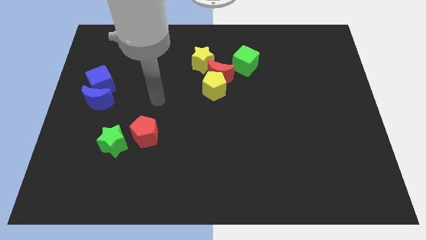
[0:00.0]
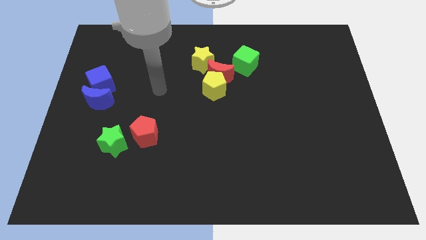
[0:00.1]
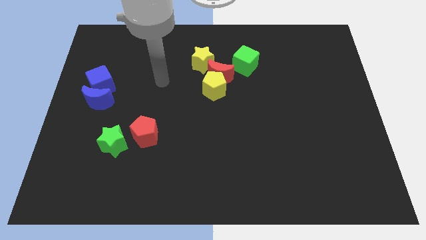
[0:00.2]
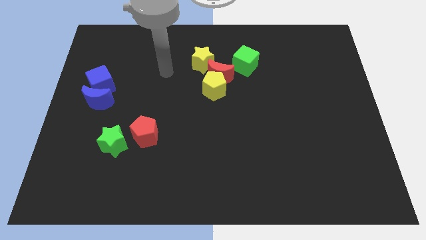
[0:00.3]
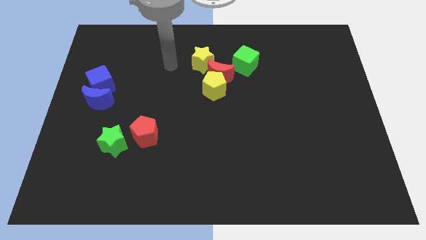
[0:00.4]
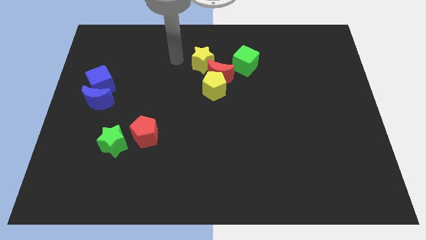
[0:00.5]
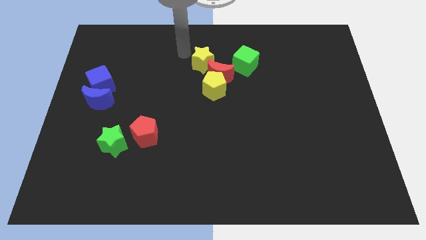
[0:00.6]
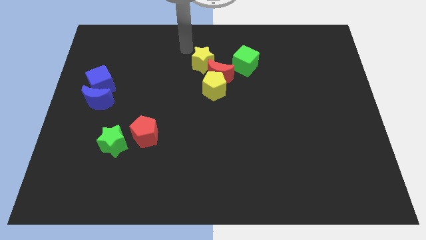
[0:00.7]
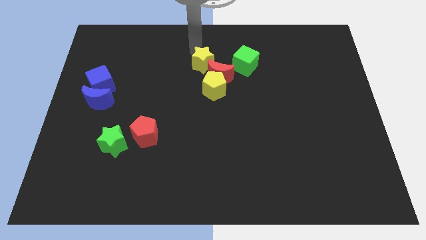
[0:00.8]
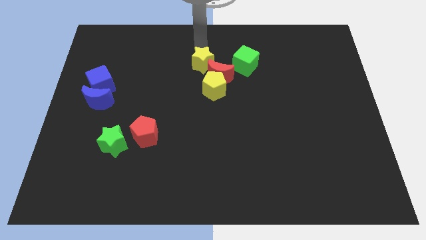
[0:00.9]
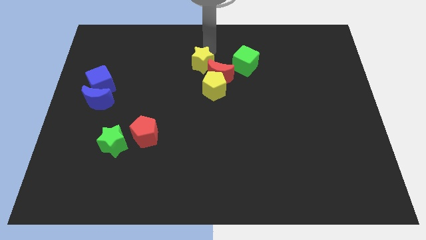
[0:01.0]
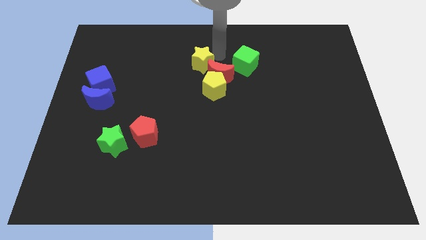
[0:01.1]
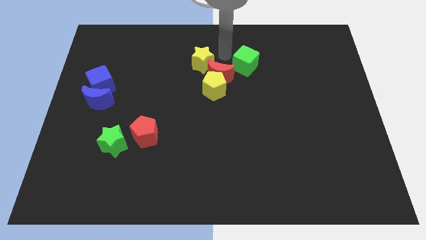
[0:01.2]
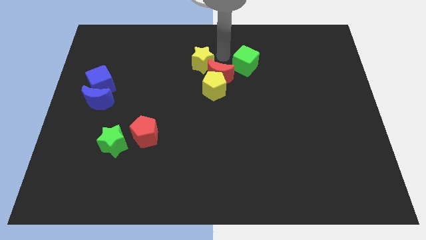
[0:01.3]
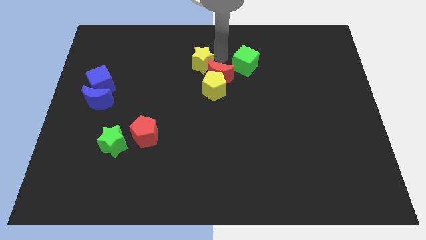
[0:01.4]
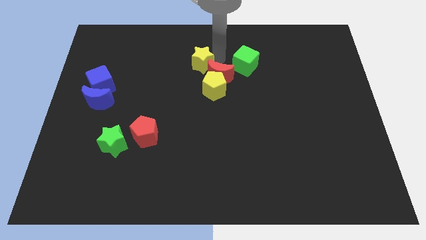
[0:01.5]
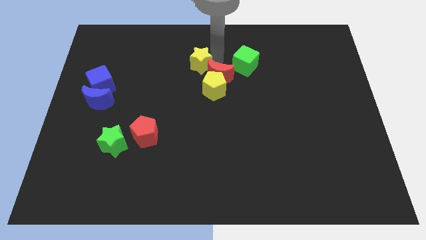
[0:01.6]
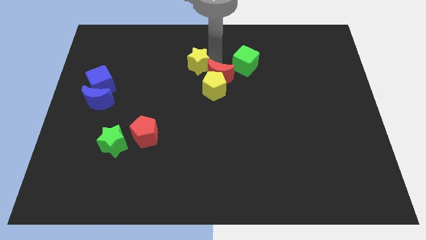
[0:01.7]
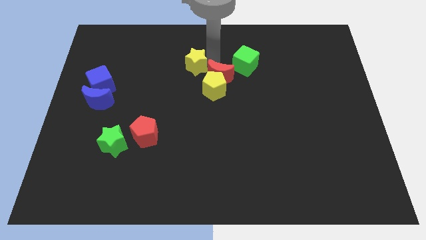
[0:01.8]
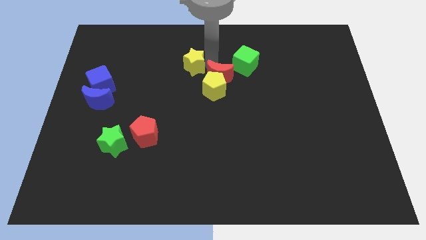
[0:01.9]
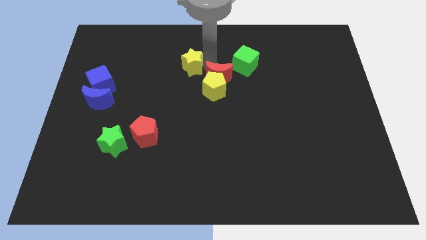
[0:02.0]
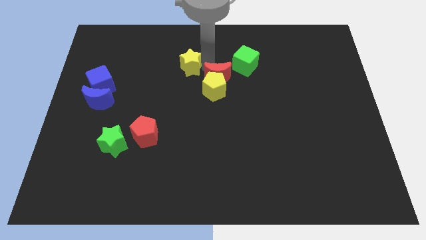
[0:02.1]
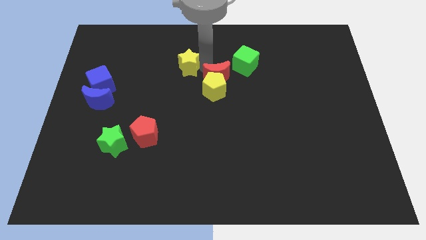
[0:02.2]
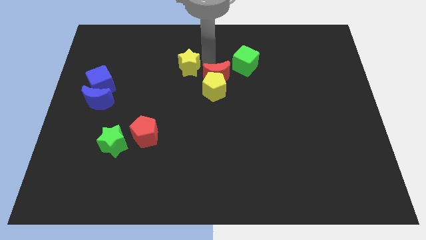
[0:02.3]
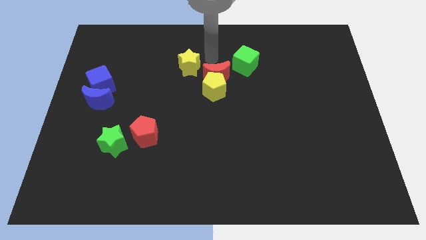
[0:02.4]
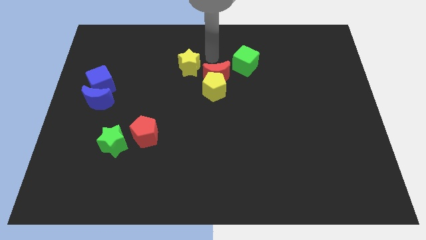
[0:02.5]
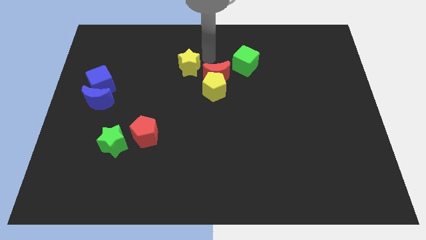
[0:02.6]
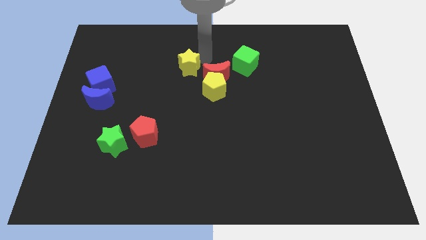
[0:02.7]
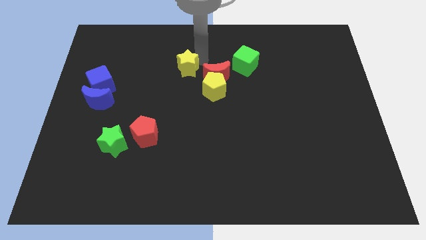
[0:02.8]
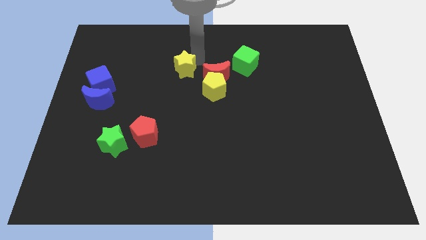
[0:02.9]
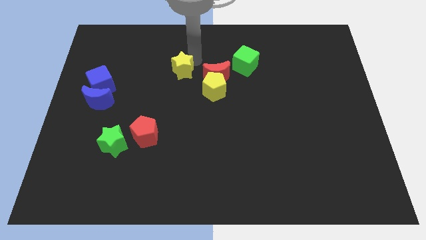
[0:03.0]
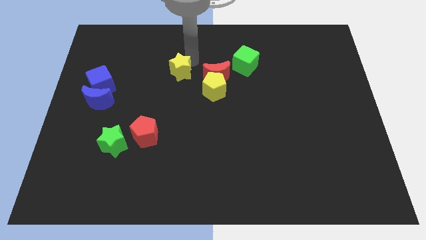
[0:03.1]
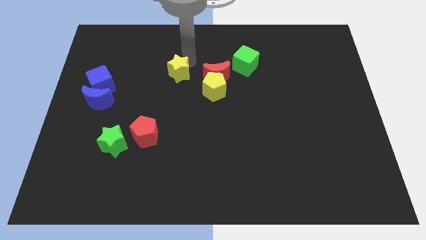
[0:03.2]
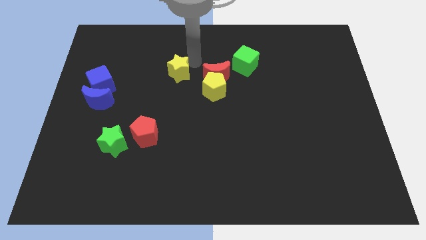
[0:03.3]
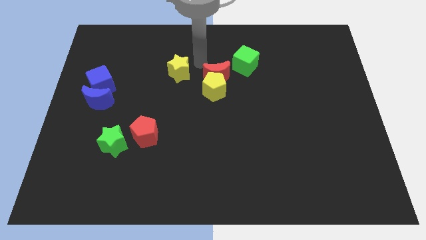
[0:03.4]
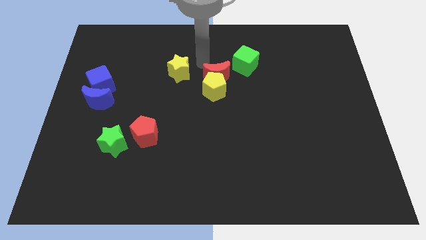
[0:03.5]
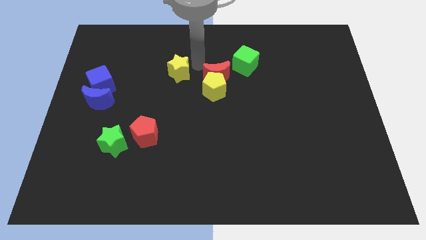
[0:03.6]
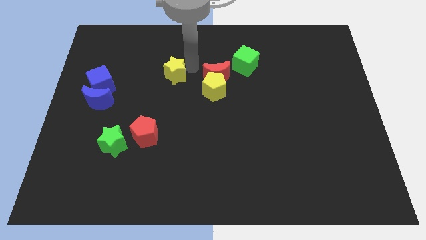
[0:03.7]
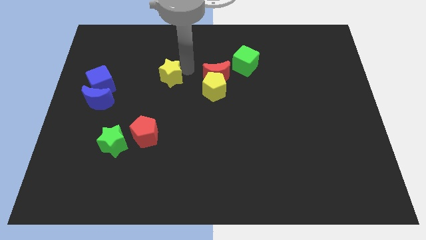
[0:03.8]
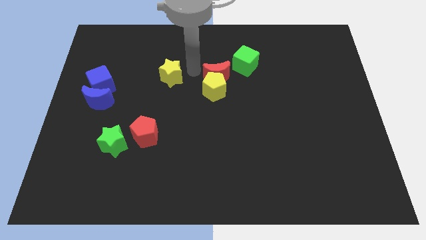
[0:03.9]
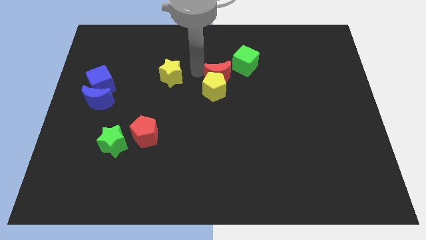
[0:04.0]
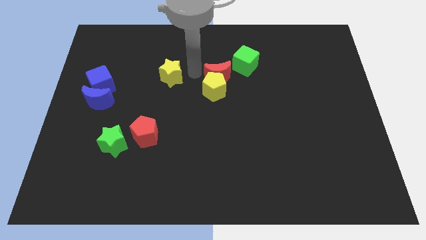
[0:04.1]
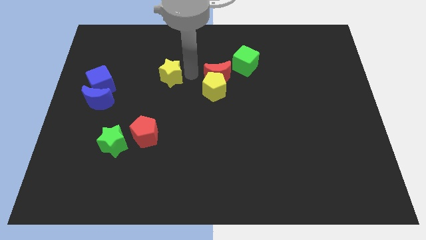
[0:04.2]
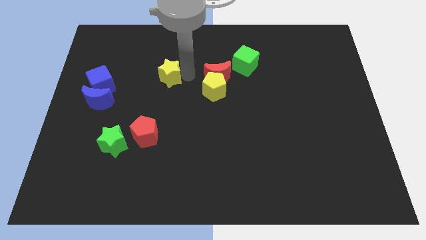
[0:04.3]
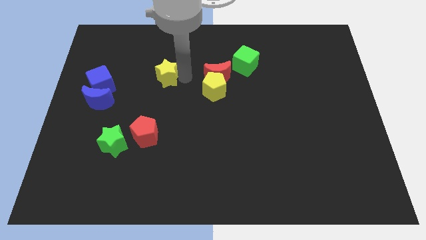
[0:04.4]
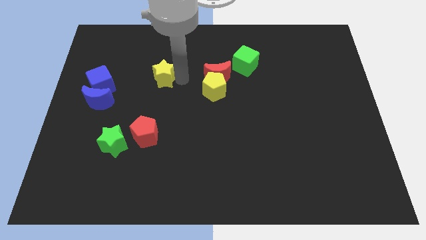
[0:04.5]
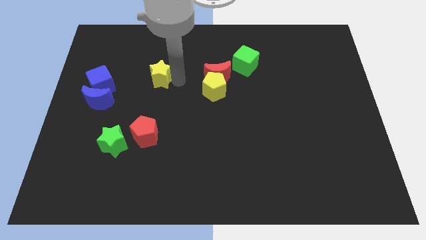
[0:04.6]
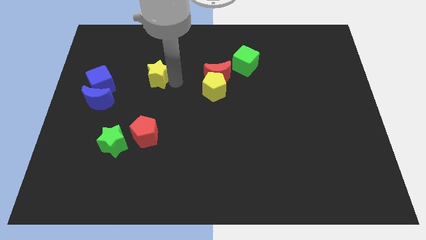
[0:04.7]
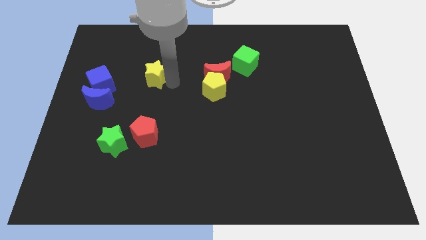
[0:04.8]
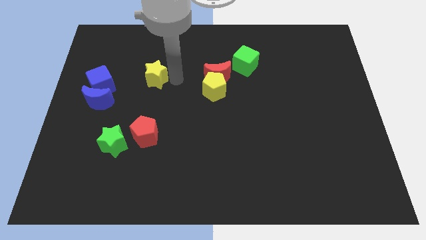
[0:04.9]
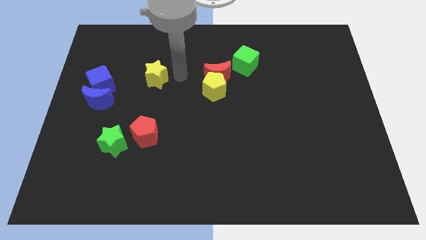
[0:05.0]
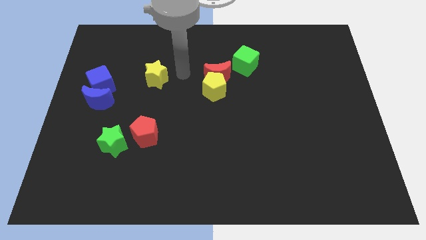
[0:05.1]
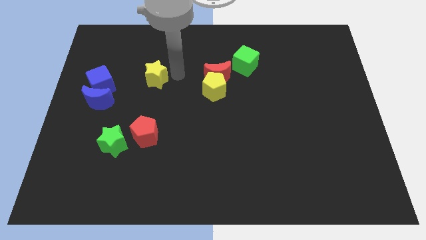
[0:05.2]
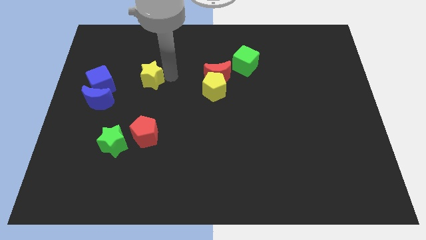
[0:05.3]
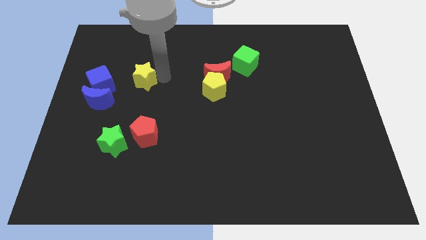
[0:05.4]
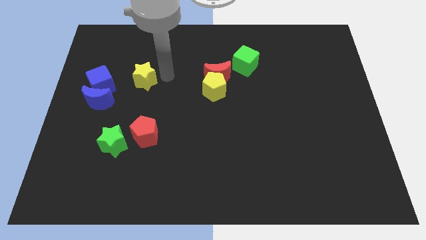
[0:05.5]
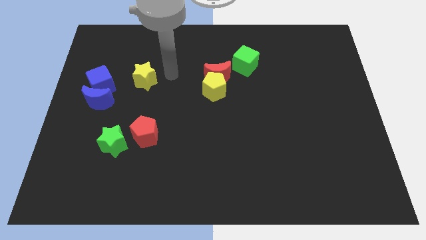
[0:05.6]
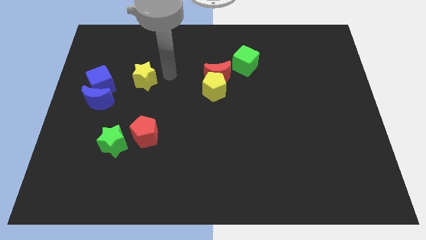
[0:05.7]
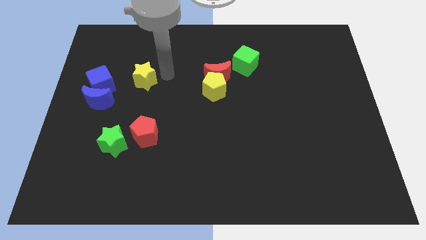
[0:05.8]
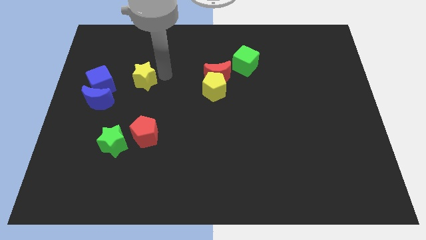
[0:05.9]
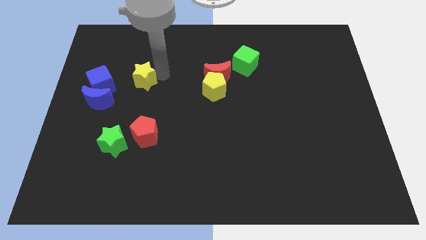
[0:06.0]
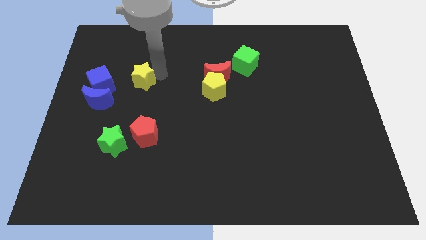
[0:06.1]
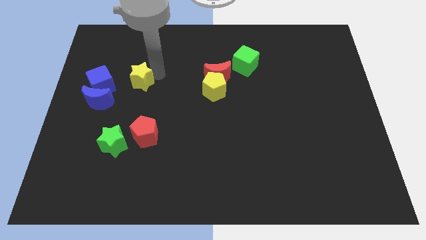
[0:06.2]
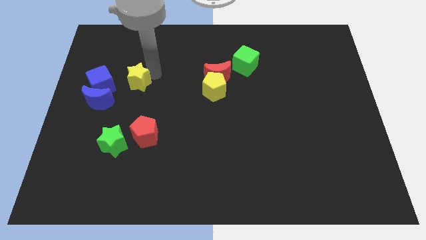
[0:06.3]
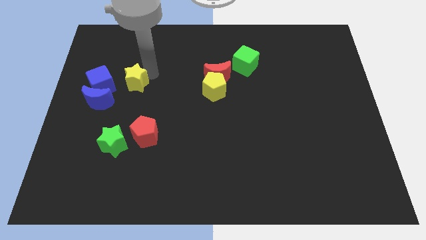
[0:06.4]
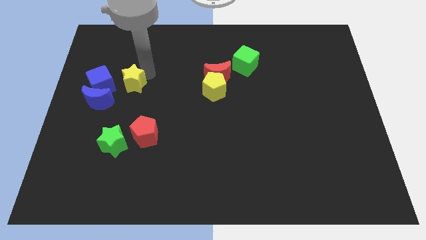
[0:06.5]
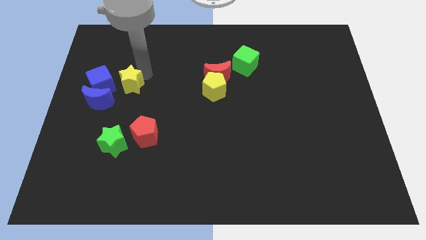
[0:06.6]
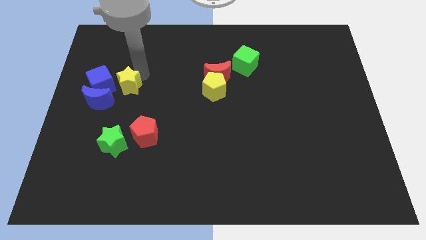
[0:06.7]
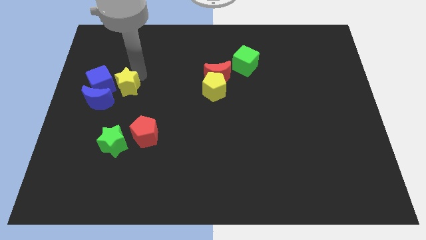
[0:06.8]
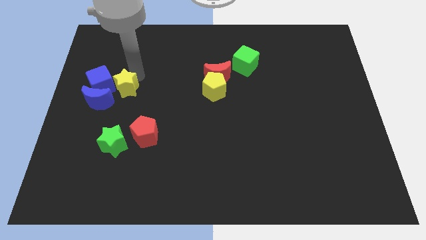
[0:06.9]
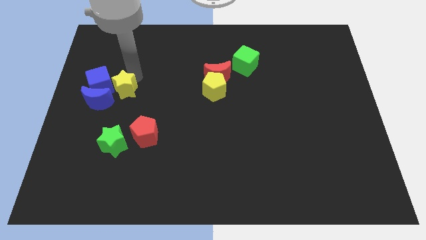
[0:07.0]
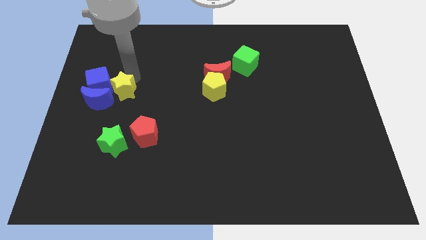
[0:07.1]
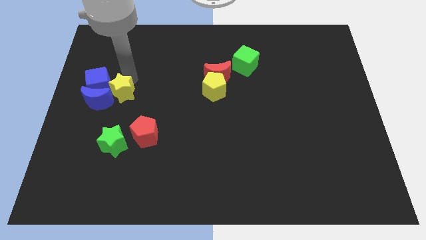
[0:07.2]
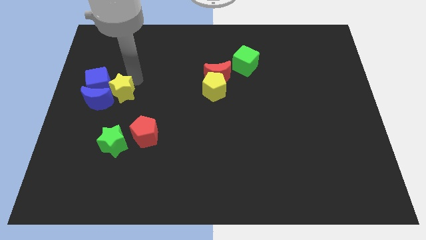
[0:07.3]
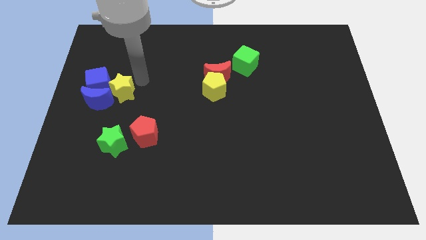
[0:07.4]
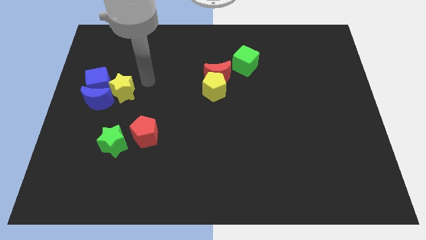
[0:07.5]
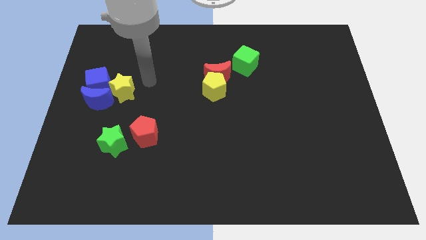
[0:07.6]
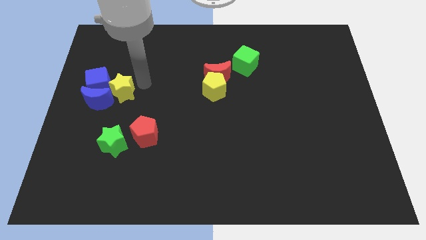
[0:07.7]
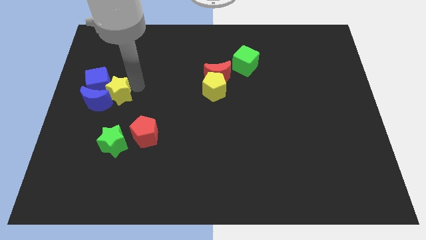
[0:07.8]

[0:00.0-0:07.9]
put the yellow star close to the blue moon
